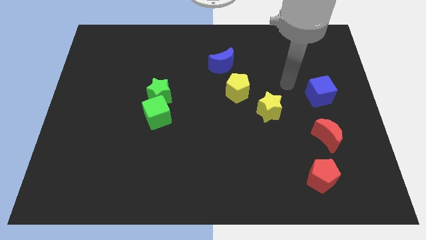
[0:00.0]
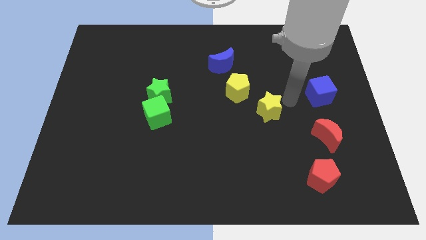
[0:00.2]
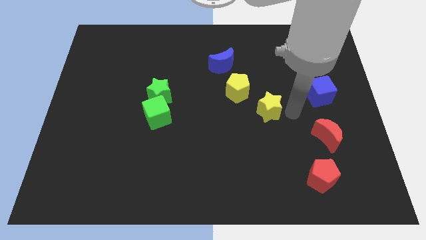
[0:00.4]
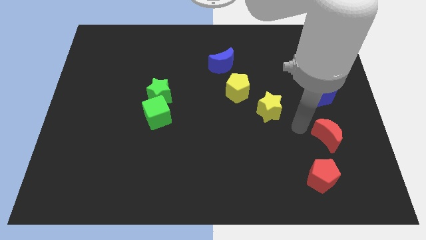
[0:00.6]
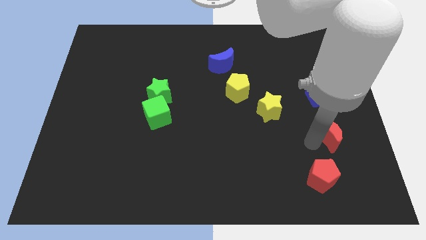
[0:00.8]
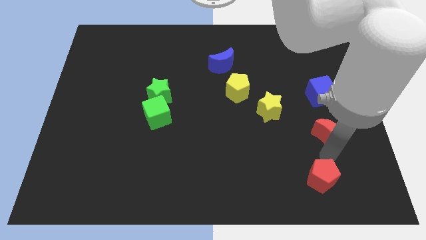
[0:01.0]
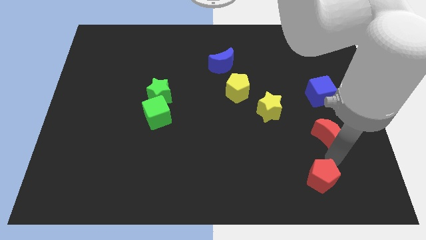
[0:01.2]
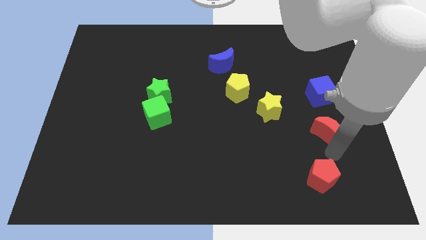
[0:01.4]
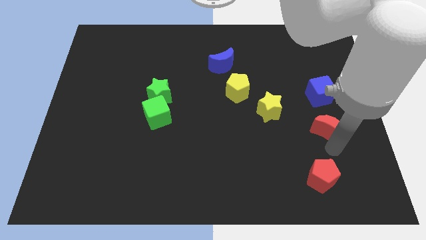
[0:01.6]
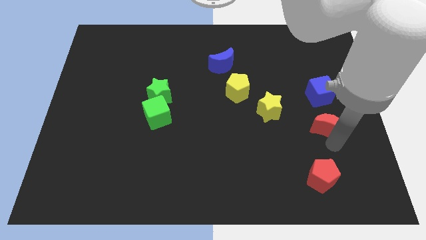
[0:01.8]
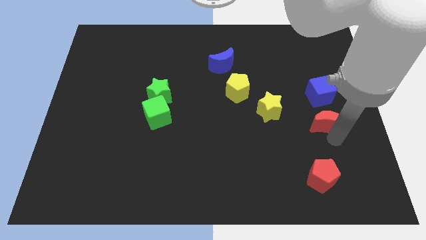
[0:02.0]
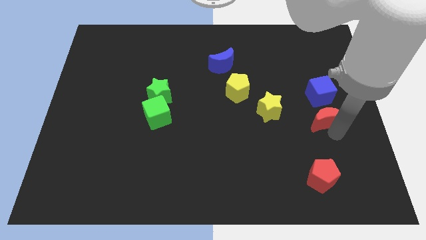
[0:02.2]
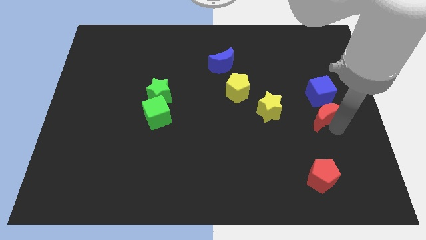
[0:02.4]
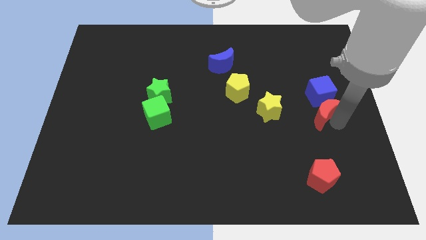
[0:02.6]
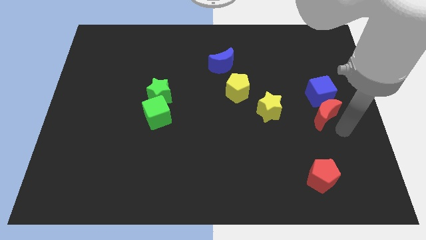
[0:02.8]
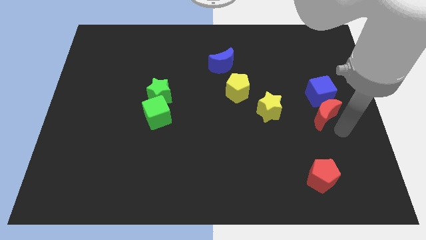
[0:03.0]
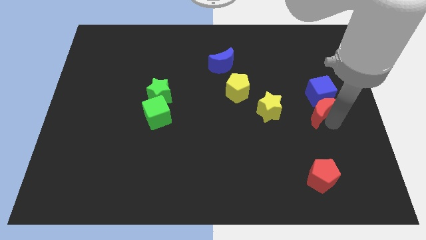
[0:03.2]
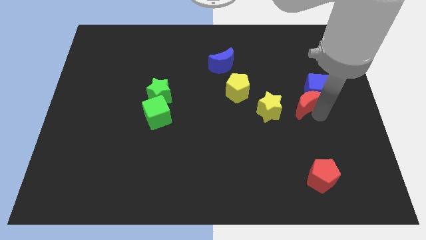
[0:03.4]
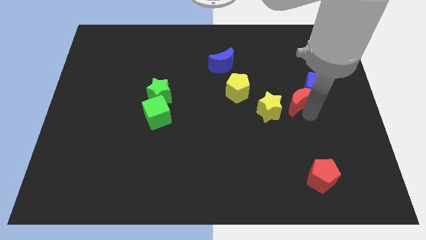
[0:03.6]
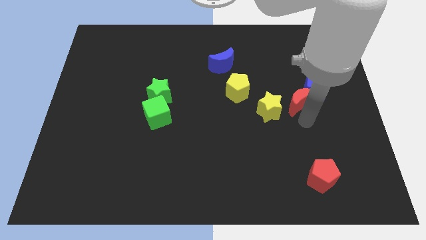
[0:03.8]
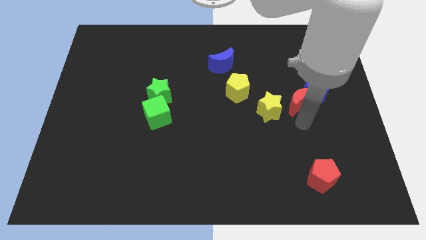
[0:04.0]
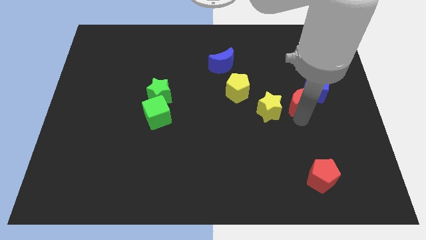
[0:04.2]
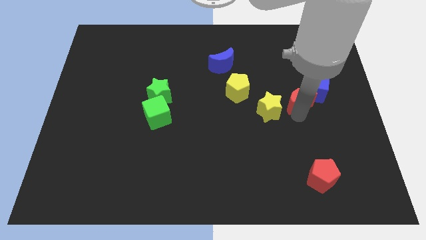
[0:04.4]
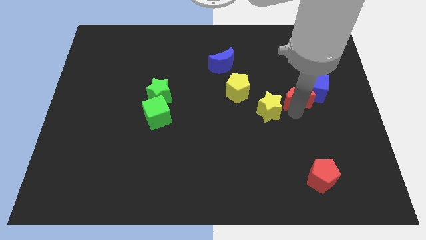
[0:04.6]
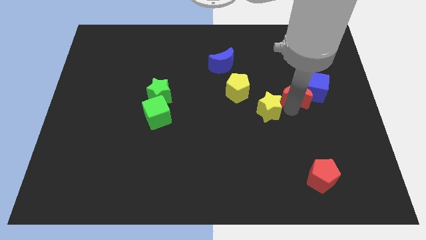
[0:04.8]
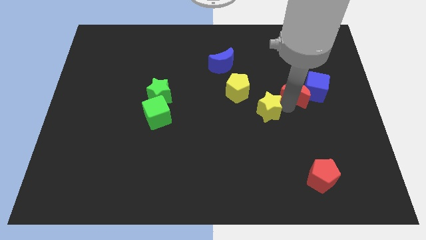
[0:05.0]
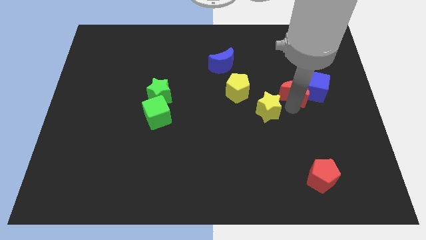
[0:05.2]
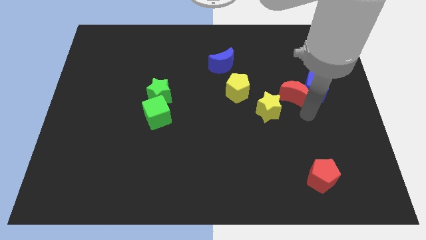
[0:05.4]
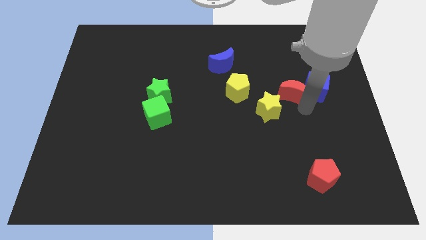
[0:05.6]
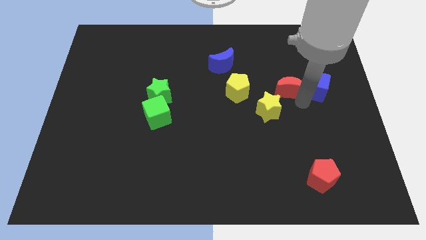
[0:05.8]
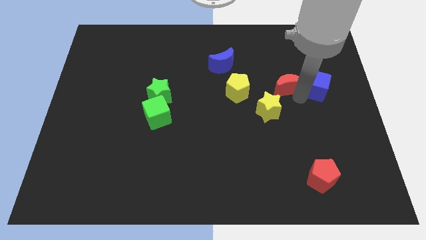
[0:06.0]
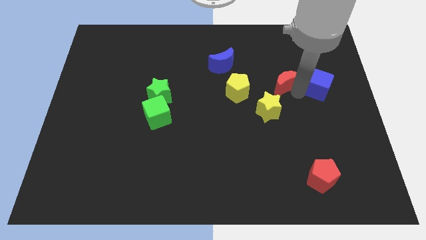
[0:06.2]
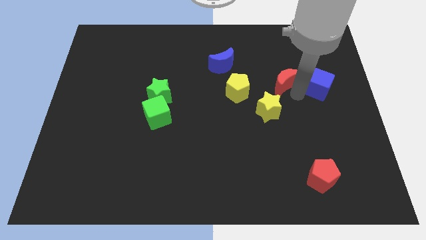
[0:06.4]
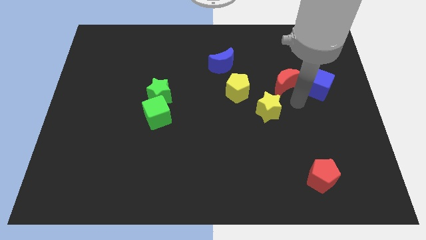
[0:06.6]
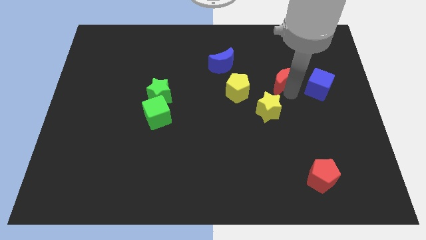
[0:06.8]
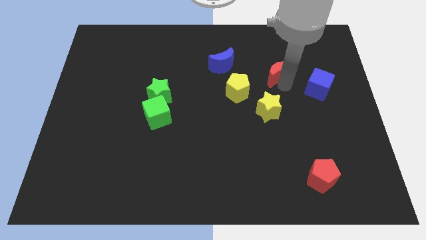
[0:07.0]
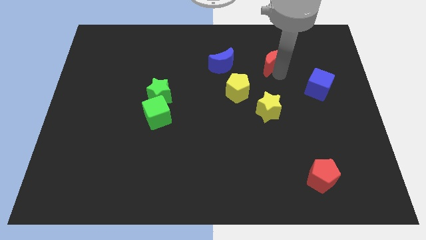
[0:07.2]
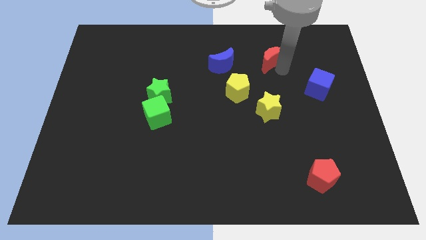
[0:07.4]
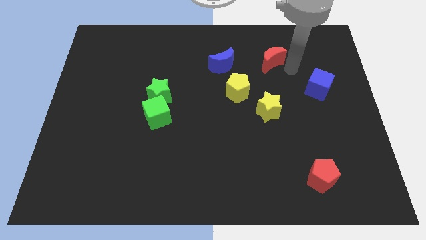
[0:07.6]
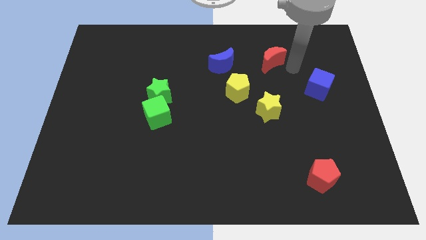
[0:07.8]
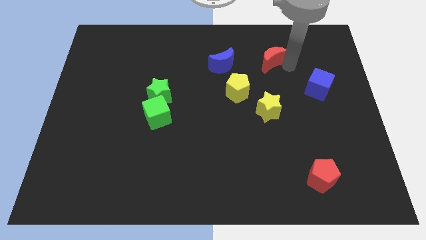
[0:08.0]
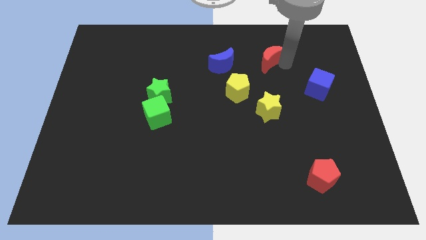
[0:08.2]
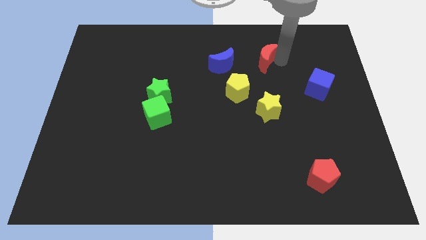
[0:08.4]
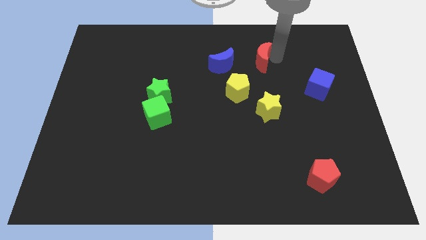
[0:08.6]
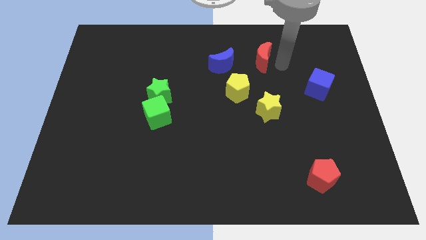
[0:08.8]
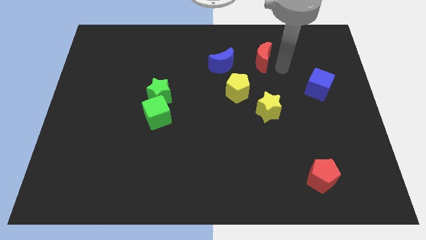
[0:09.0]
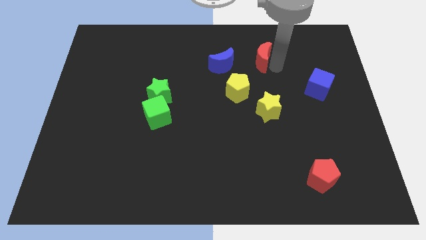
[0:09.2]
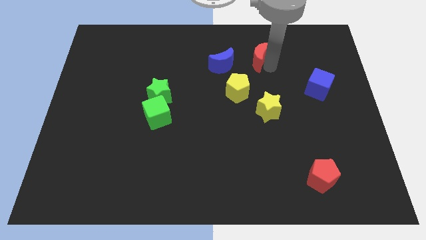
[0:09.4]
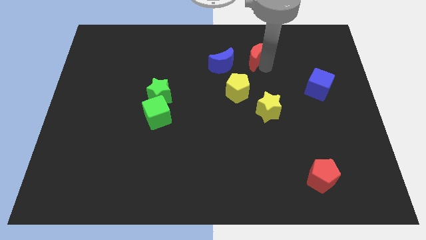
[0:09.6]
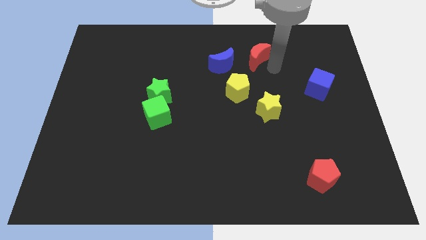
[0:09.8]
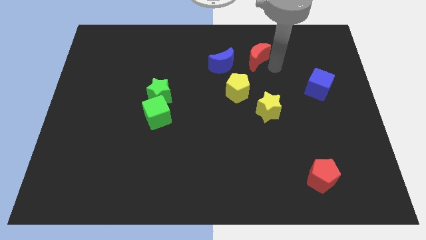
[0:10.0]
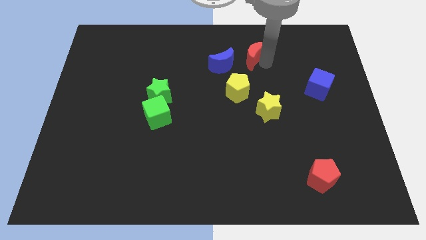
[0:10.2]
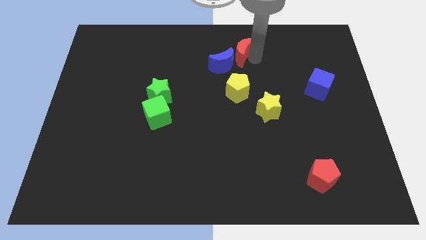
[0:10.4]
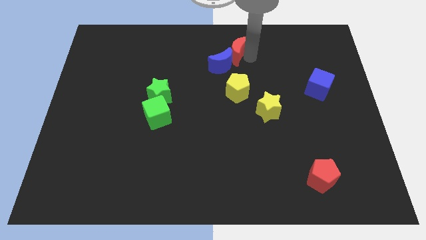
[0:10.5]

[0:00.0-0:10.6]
move the red moon to the top
